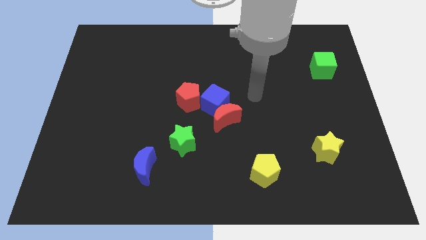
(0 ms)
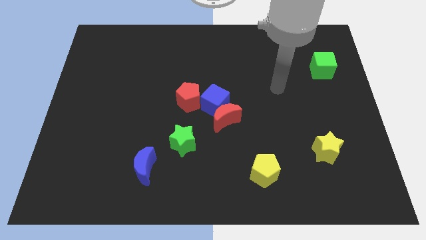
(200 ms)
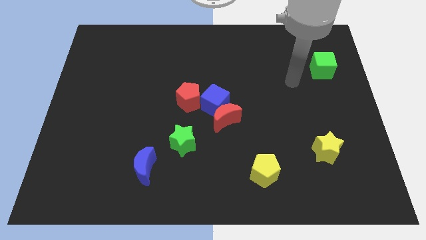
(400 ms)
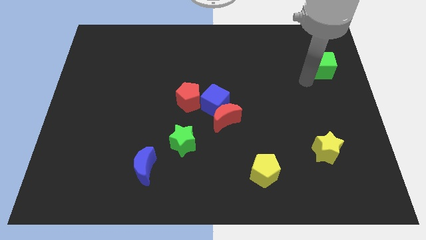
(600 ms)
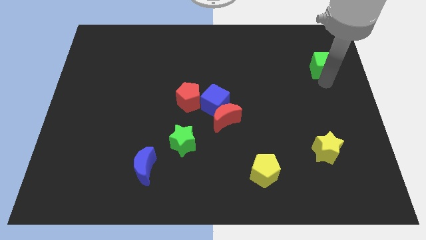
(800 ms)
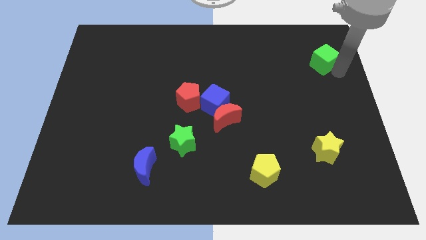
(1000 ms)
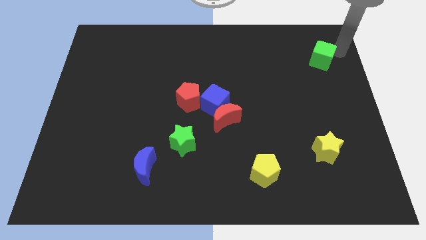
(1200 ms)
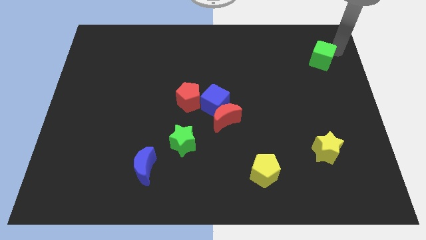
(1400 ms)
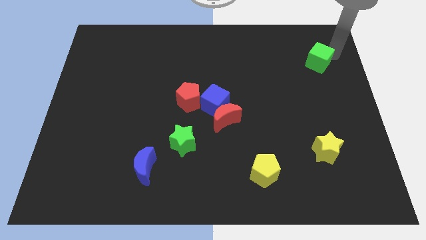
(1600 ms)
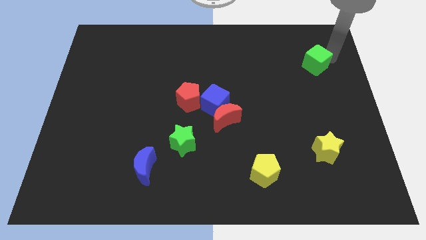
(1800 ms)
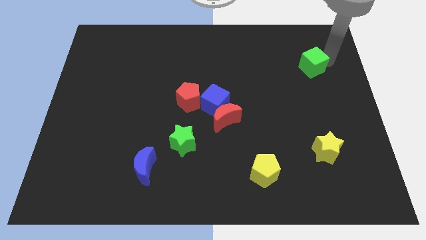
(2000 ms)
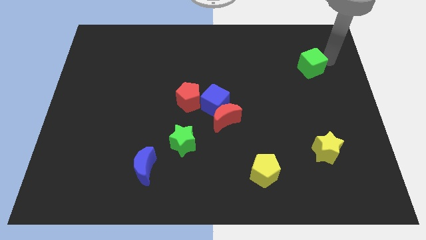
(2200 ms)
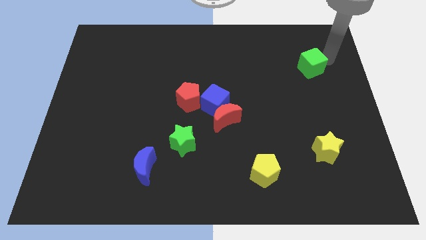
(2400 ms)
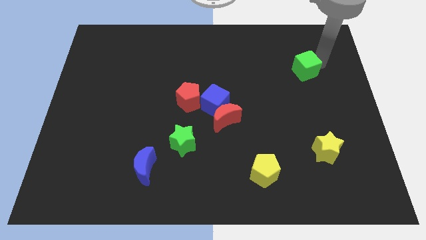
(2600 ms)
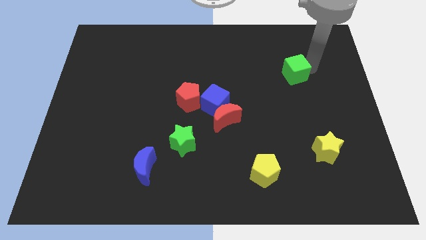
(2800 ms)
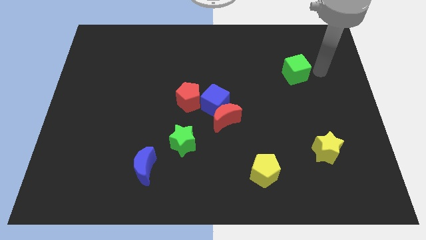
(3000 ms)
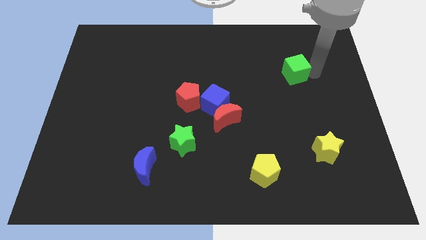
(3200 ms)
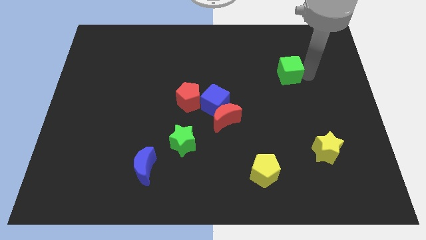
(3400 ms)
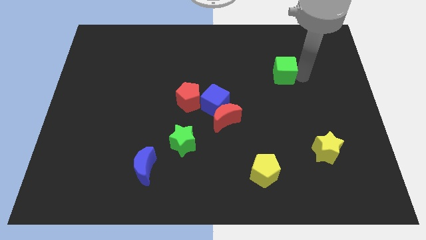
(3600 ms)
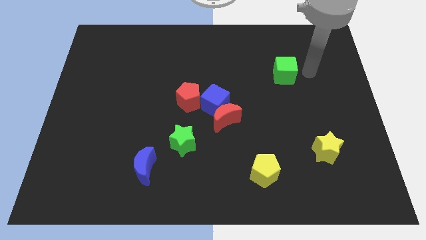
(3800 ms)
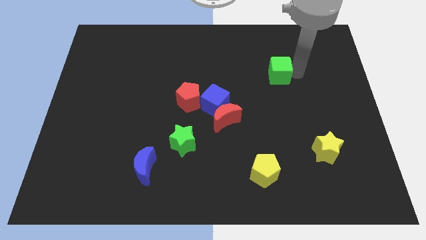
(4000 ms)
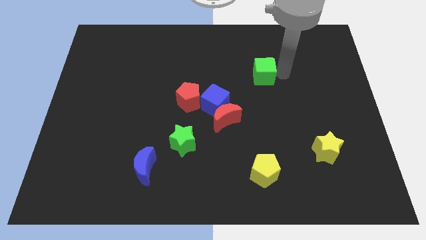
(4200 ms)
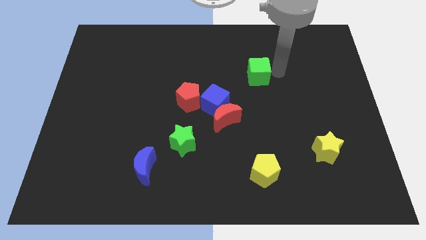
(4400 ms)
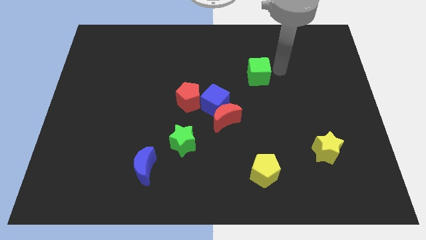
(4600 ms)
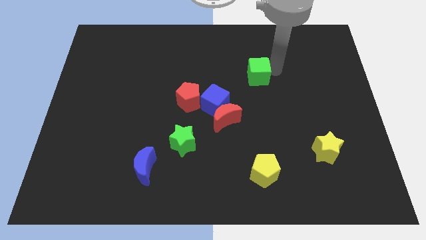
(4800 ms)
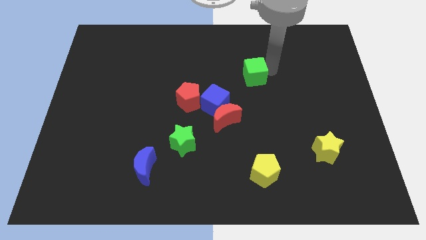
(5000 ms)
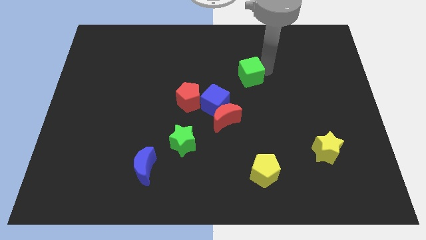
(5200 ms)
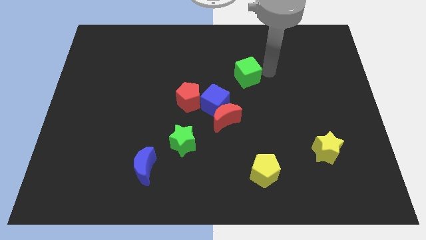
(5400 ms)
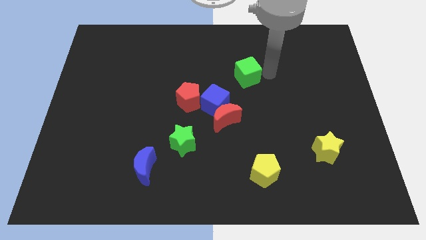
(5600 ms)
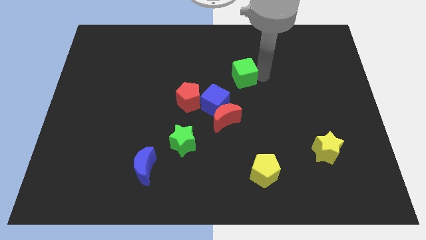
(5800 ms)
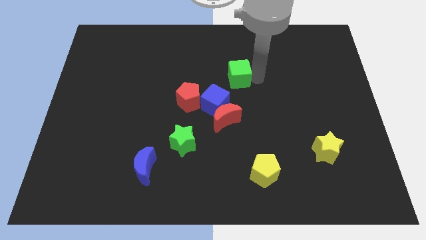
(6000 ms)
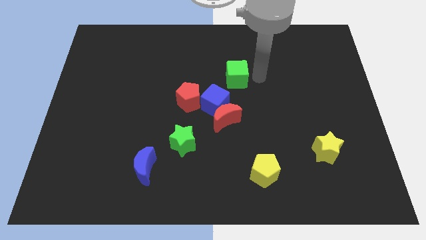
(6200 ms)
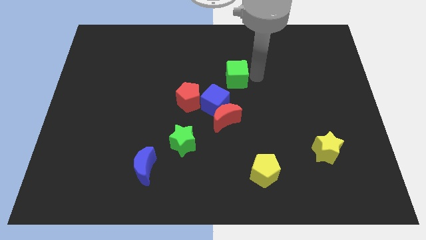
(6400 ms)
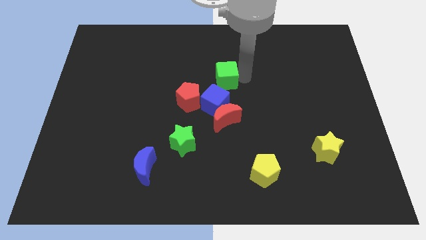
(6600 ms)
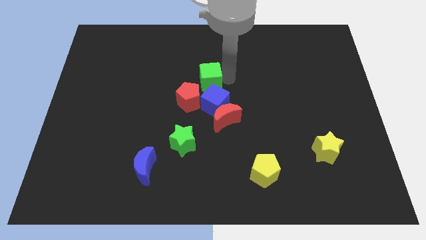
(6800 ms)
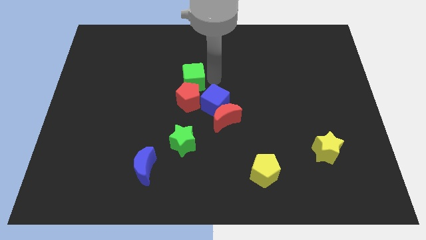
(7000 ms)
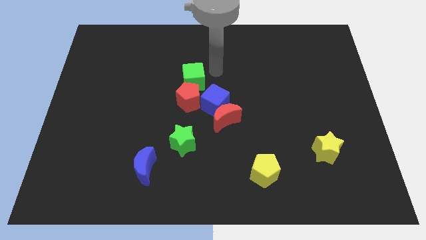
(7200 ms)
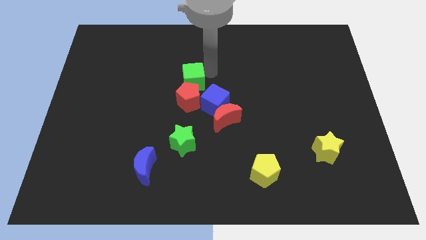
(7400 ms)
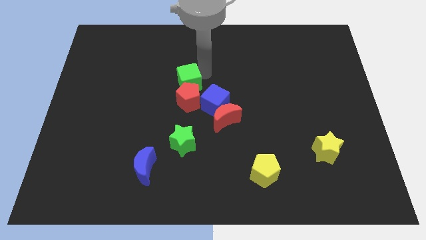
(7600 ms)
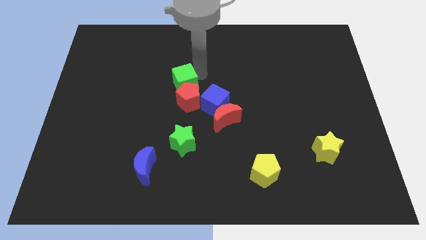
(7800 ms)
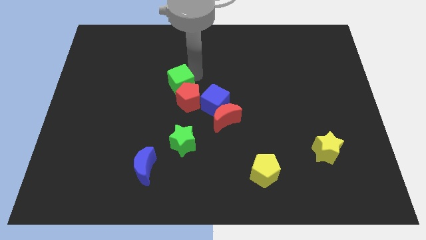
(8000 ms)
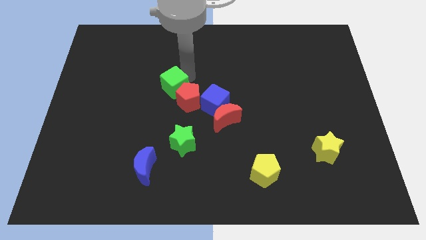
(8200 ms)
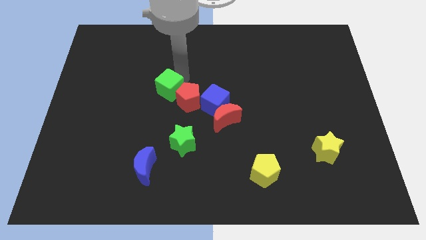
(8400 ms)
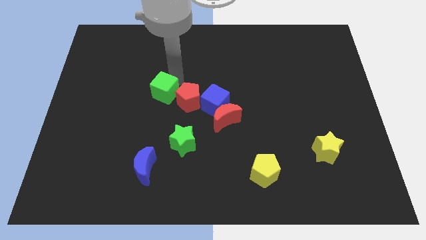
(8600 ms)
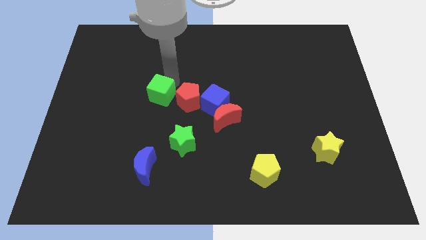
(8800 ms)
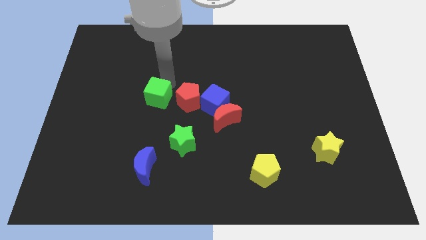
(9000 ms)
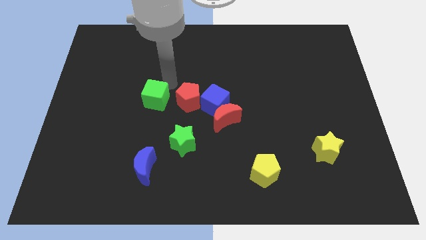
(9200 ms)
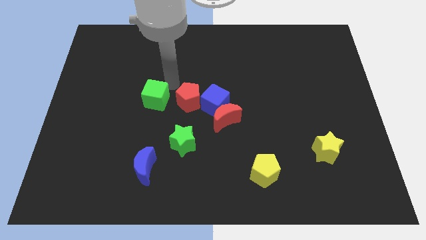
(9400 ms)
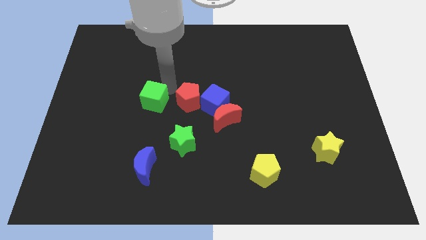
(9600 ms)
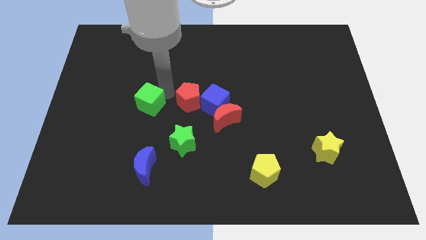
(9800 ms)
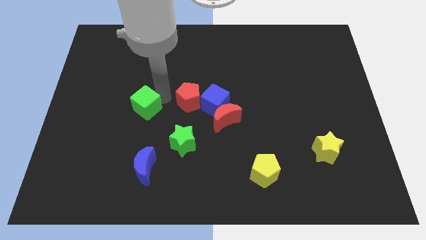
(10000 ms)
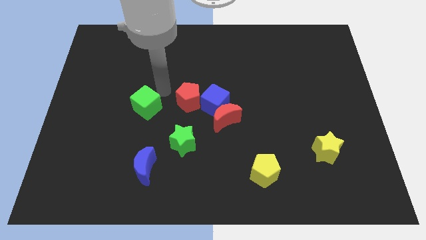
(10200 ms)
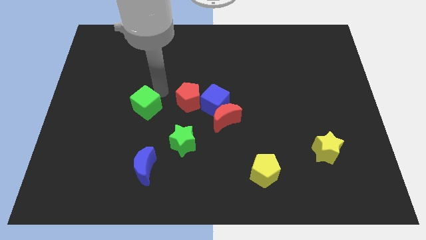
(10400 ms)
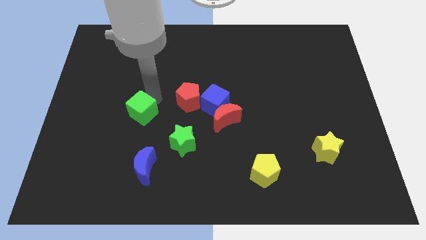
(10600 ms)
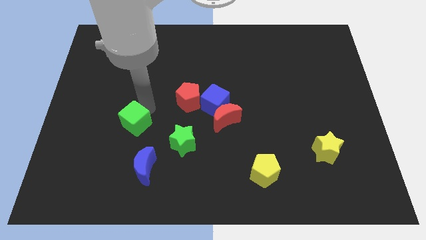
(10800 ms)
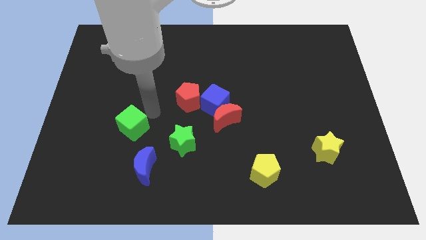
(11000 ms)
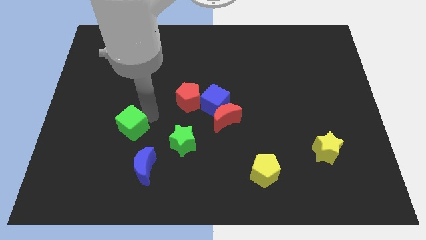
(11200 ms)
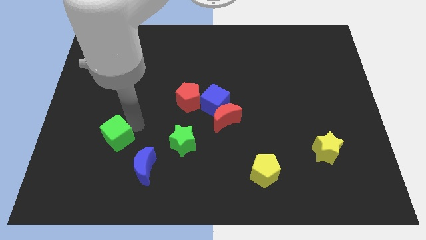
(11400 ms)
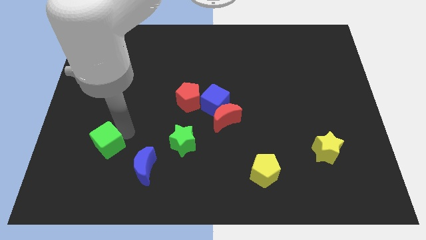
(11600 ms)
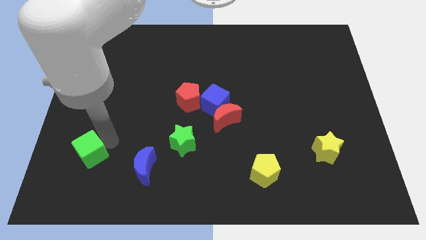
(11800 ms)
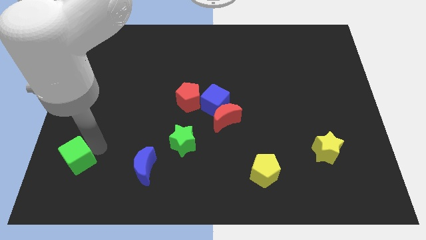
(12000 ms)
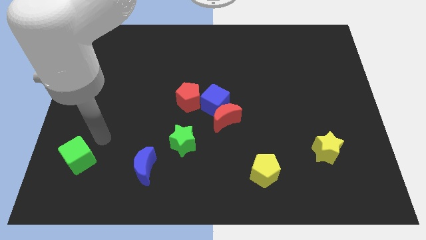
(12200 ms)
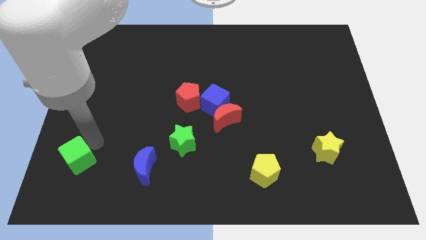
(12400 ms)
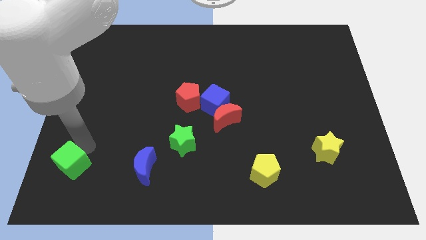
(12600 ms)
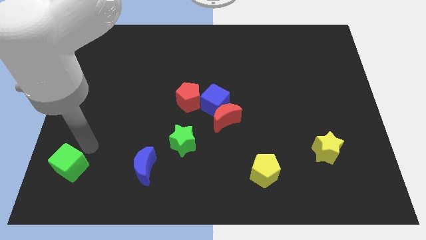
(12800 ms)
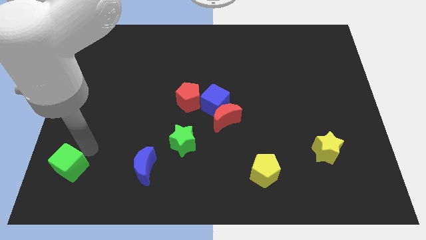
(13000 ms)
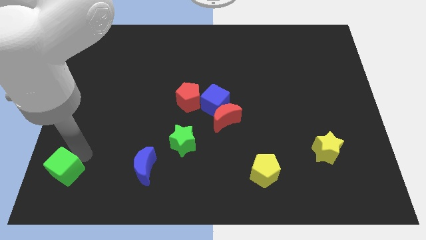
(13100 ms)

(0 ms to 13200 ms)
push the green cube to the bottom left corner

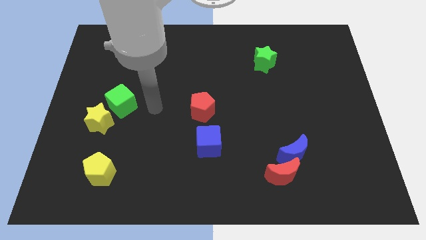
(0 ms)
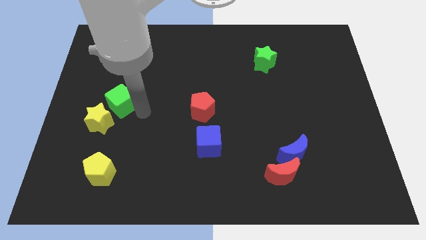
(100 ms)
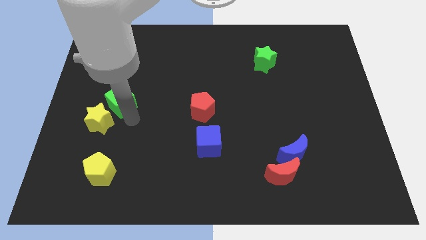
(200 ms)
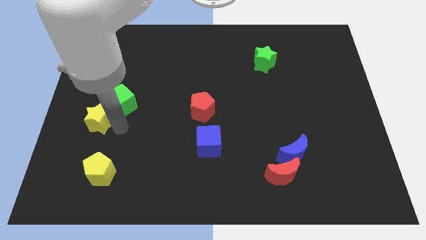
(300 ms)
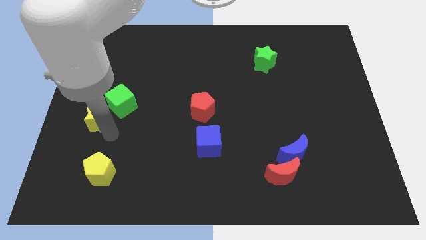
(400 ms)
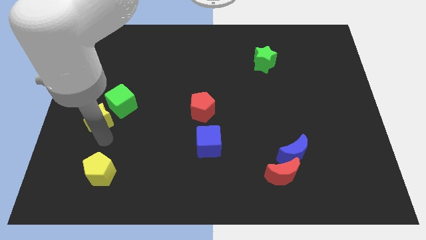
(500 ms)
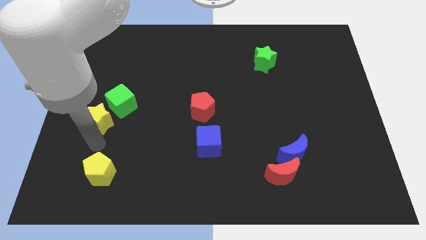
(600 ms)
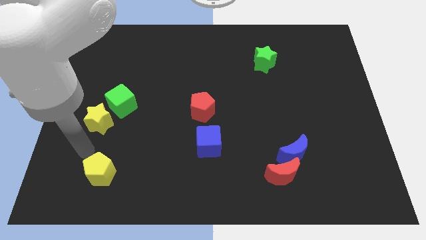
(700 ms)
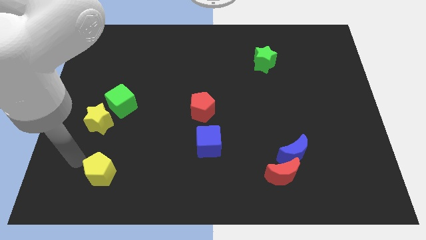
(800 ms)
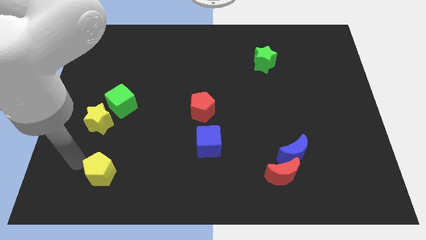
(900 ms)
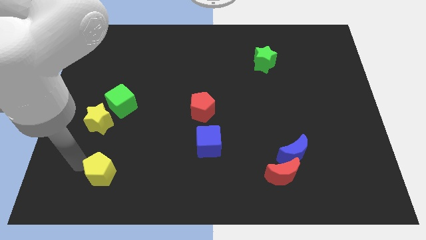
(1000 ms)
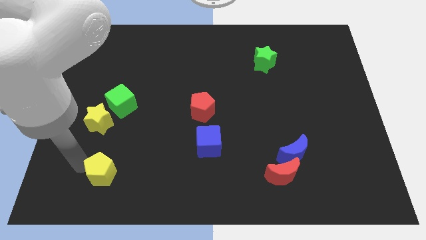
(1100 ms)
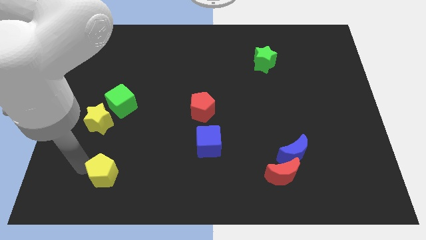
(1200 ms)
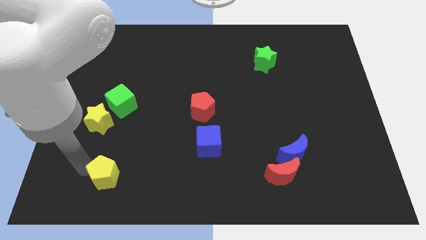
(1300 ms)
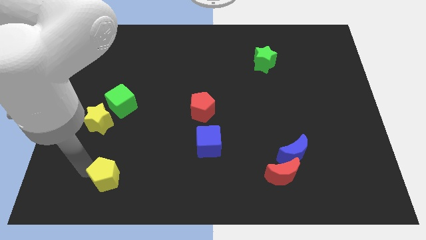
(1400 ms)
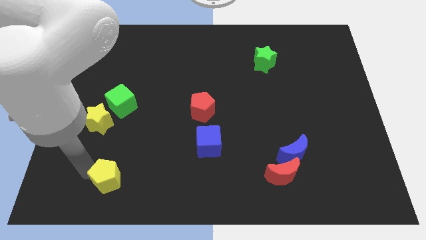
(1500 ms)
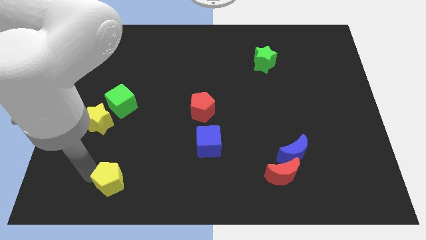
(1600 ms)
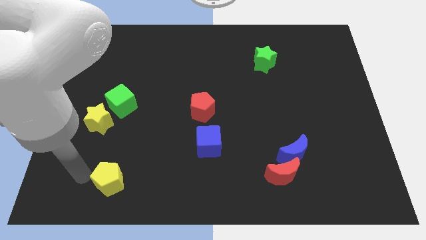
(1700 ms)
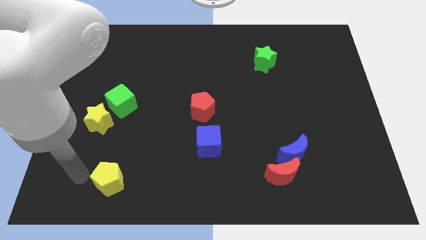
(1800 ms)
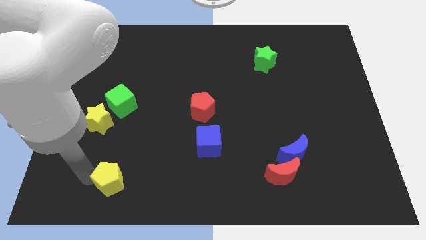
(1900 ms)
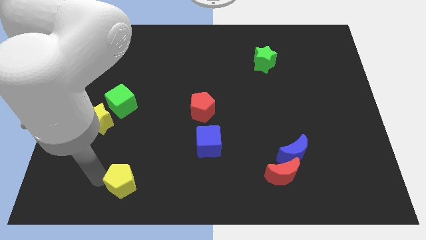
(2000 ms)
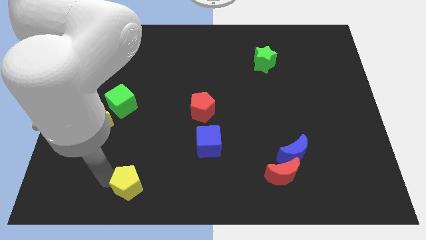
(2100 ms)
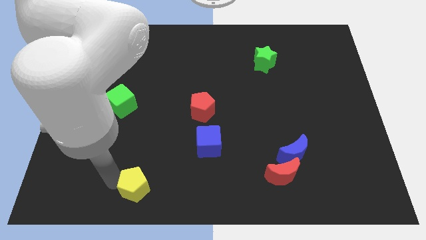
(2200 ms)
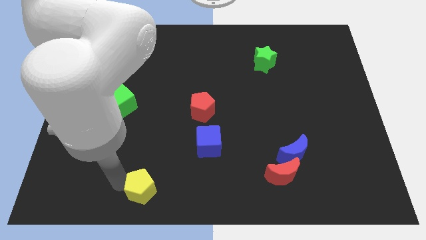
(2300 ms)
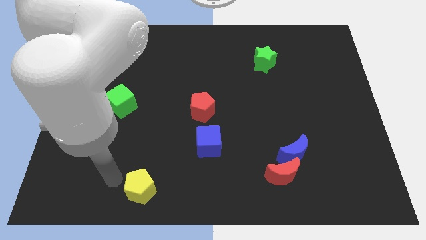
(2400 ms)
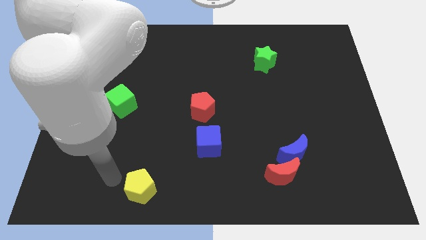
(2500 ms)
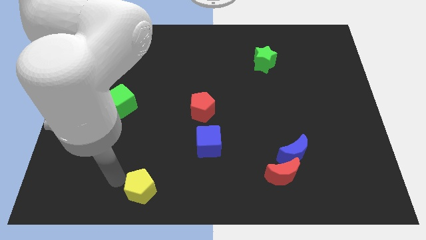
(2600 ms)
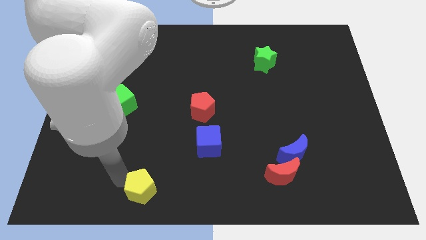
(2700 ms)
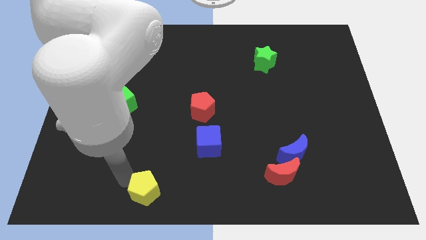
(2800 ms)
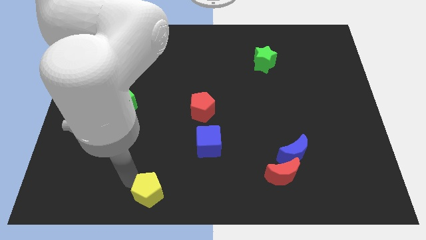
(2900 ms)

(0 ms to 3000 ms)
put the yellow pentagon to the bottom side
